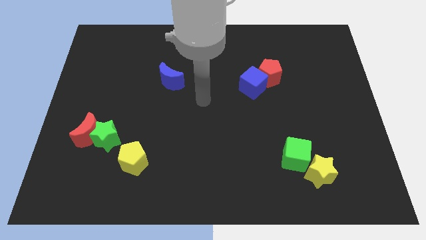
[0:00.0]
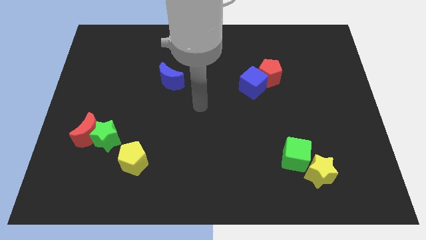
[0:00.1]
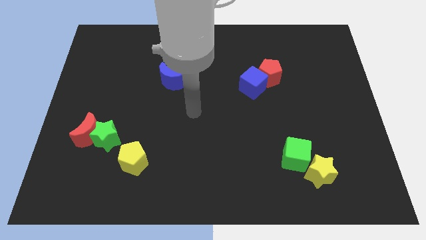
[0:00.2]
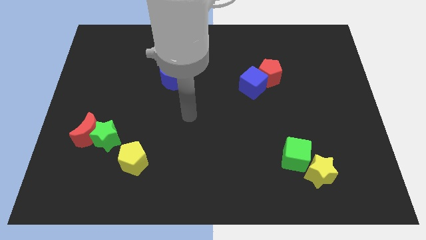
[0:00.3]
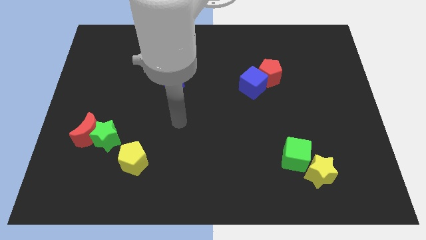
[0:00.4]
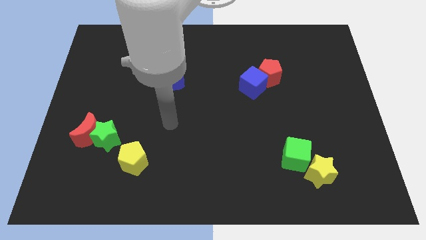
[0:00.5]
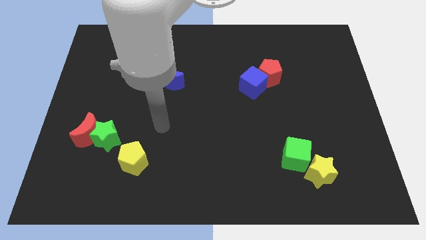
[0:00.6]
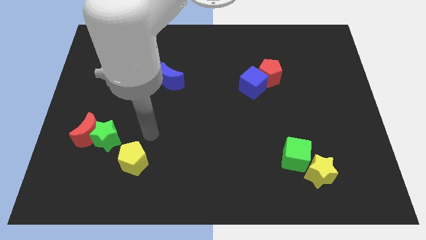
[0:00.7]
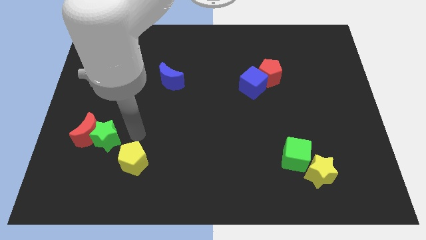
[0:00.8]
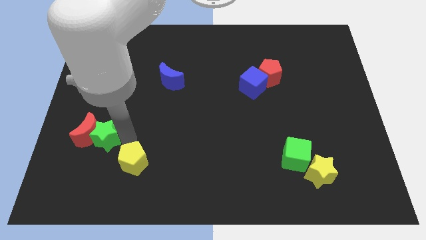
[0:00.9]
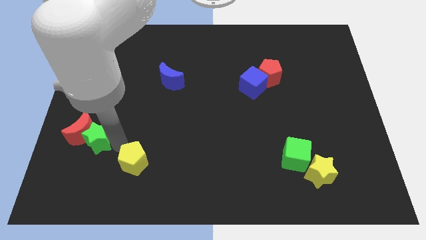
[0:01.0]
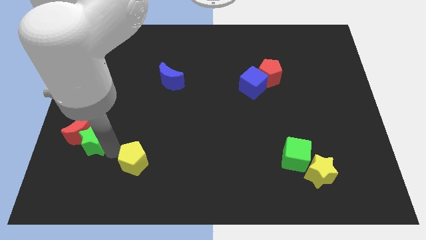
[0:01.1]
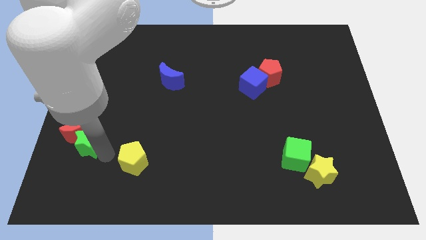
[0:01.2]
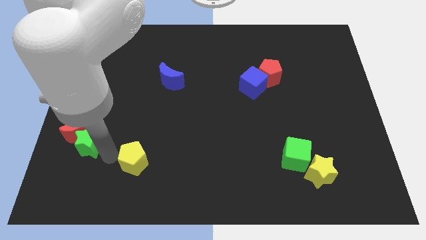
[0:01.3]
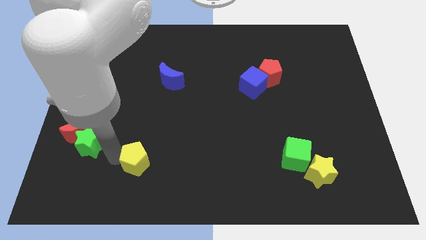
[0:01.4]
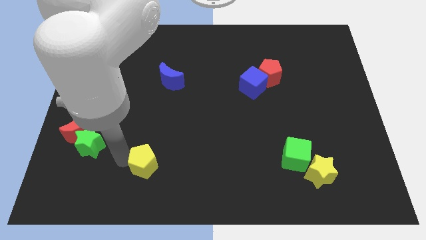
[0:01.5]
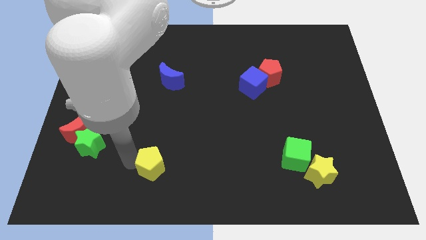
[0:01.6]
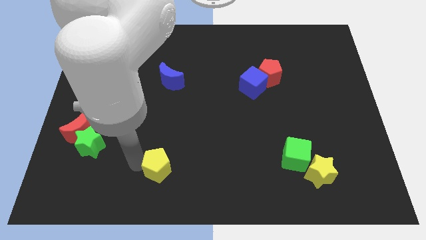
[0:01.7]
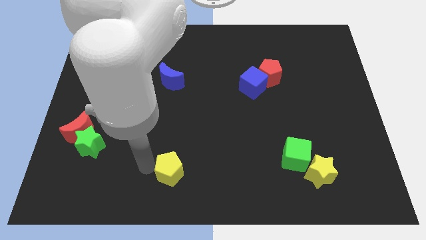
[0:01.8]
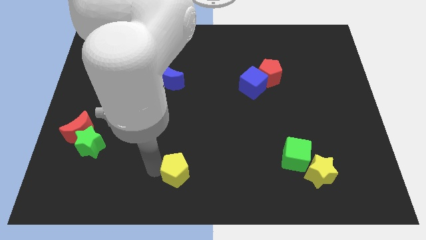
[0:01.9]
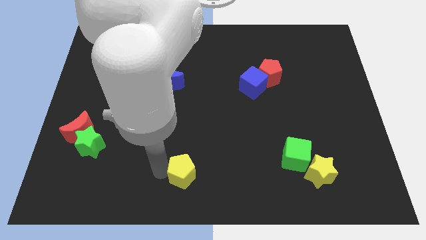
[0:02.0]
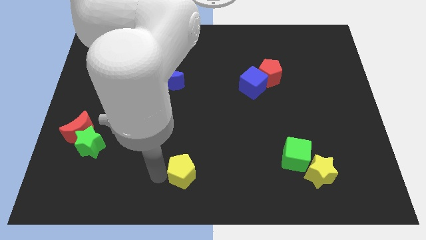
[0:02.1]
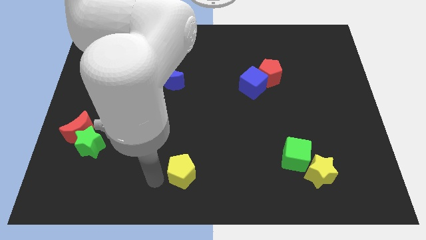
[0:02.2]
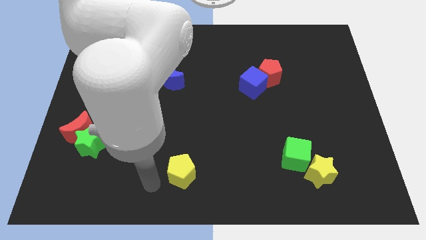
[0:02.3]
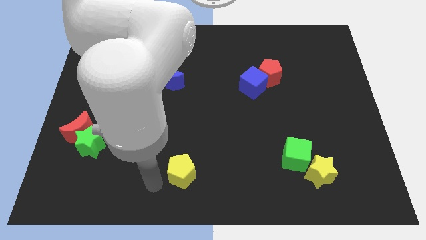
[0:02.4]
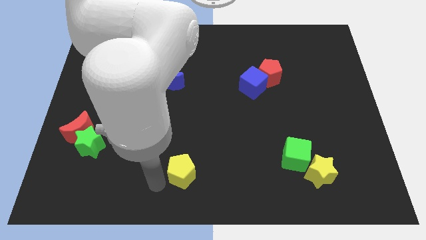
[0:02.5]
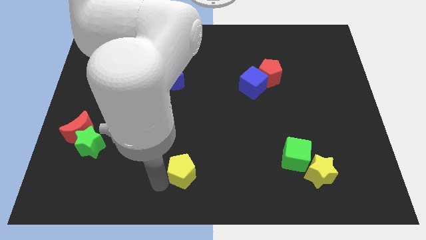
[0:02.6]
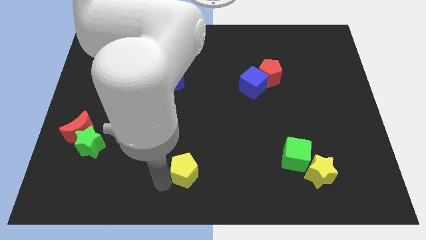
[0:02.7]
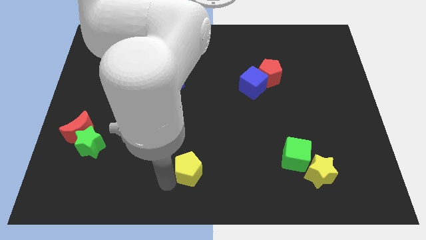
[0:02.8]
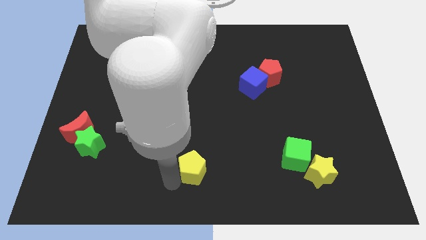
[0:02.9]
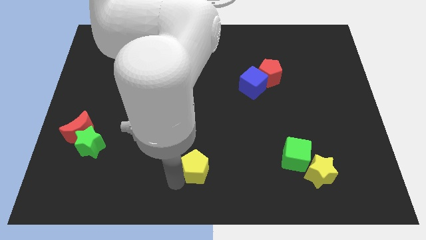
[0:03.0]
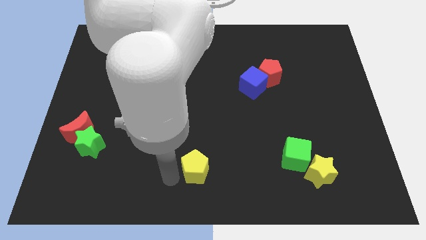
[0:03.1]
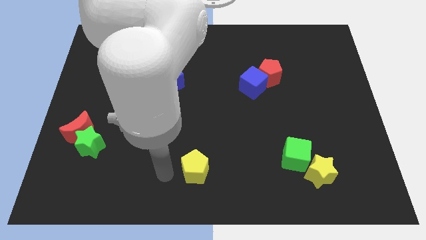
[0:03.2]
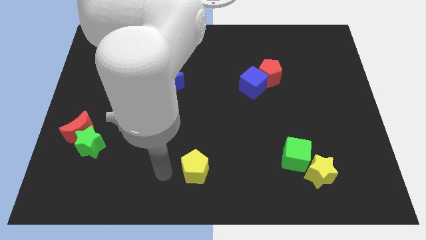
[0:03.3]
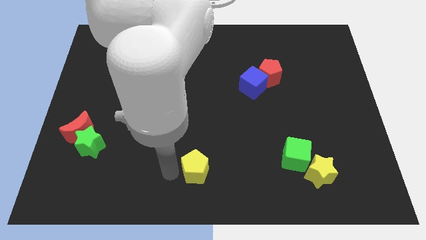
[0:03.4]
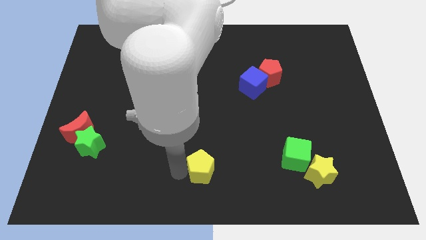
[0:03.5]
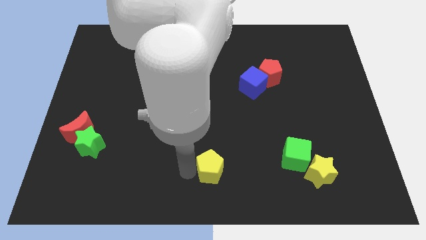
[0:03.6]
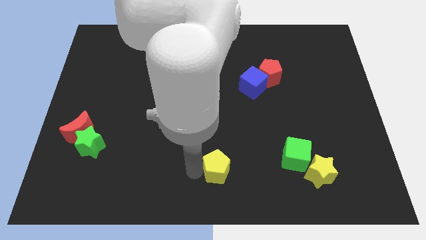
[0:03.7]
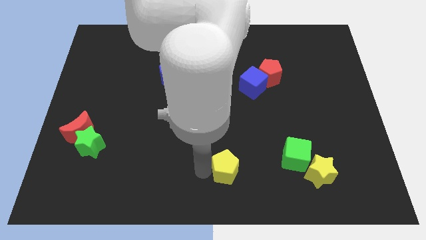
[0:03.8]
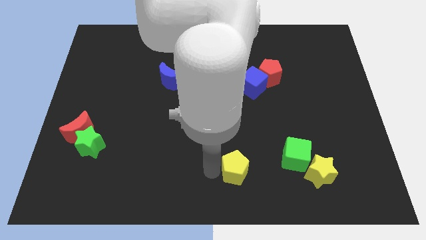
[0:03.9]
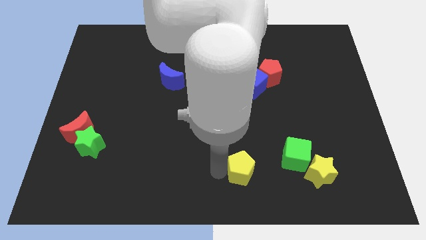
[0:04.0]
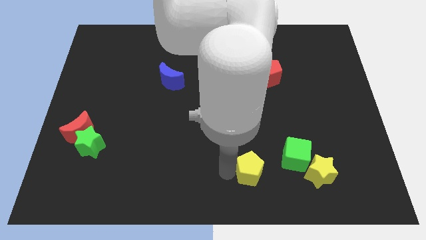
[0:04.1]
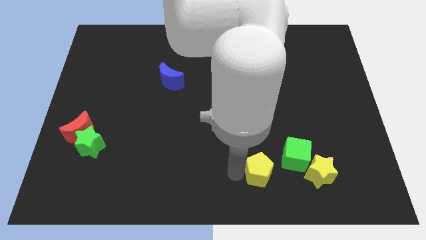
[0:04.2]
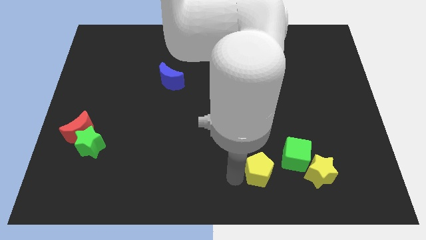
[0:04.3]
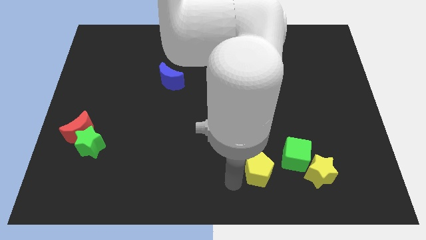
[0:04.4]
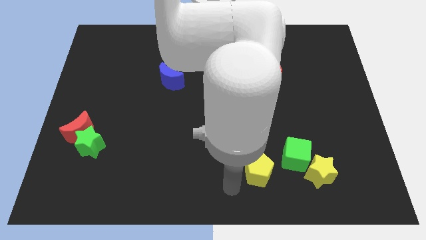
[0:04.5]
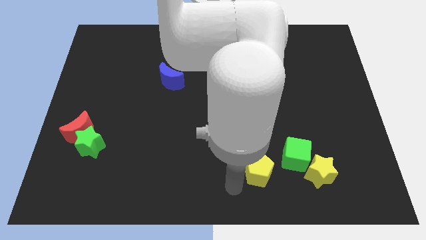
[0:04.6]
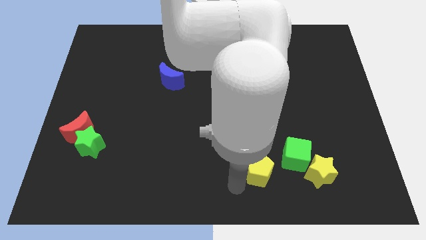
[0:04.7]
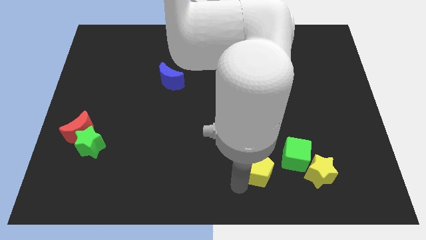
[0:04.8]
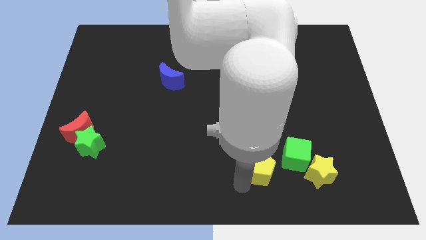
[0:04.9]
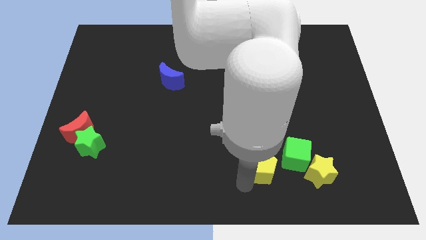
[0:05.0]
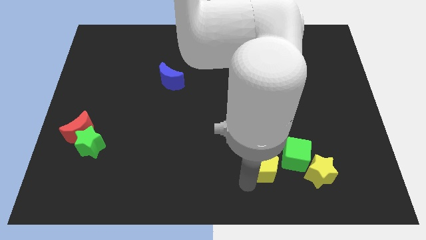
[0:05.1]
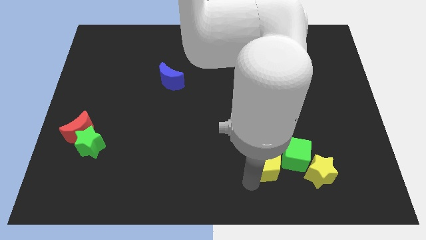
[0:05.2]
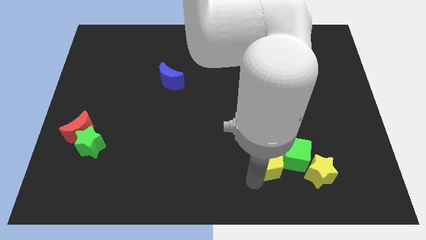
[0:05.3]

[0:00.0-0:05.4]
put the yellow pentagon towards the green cube

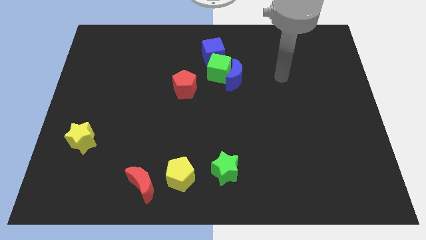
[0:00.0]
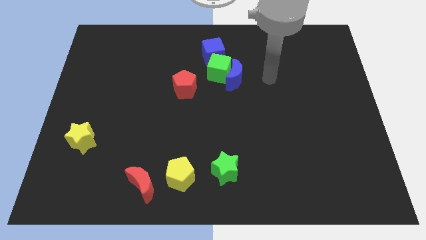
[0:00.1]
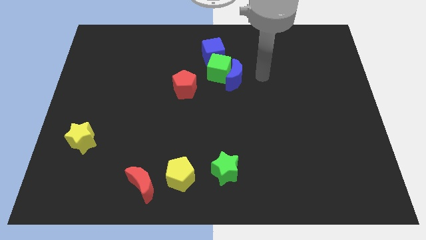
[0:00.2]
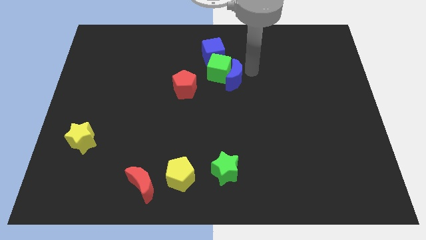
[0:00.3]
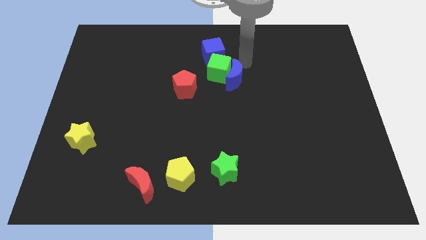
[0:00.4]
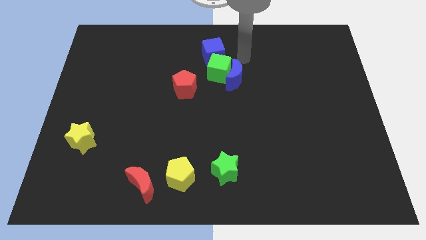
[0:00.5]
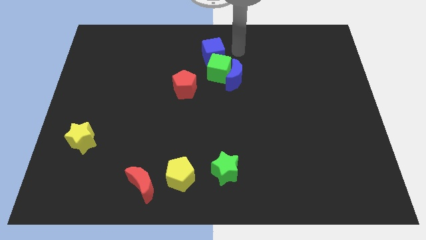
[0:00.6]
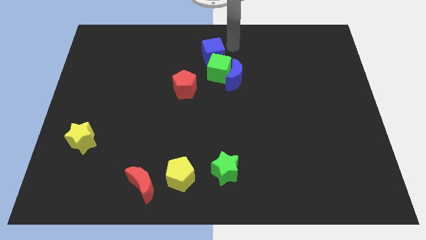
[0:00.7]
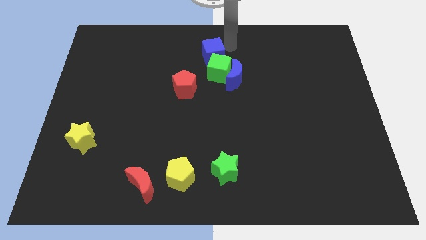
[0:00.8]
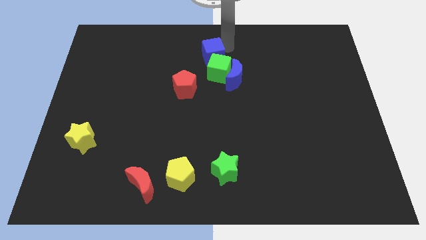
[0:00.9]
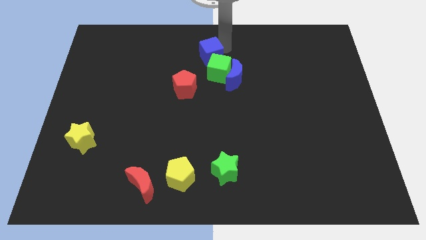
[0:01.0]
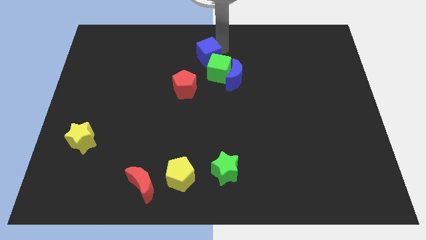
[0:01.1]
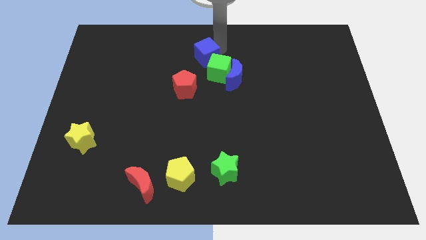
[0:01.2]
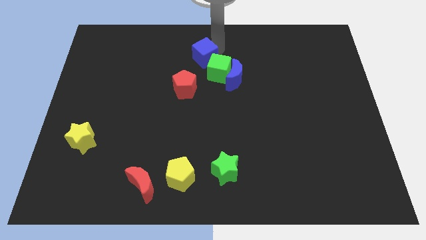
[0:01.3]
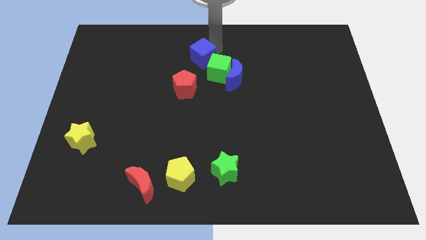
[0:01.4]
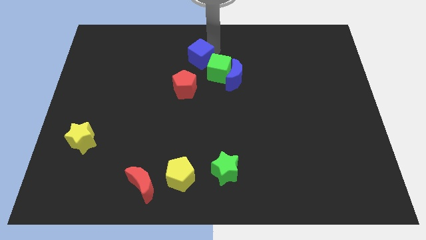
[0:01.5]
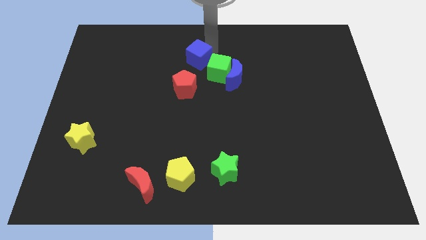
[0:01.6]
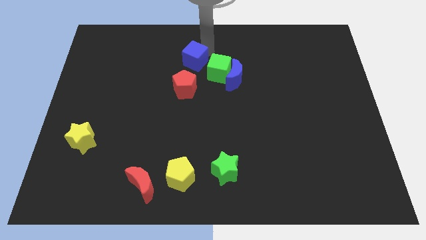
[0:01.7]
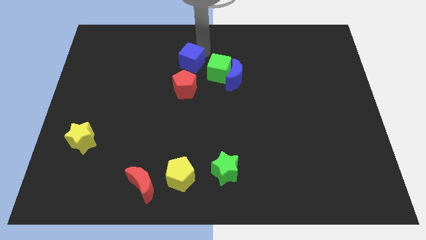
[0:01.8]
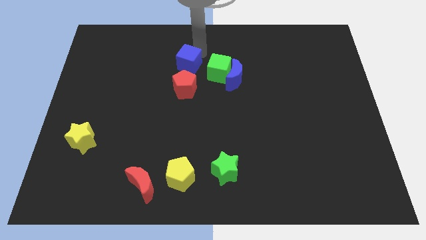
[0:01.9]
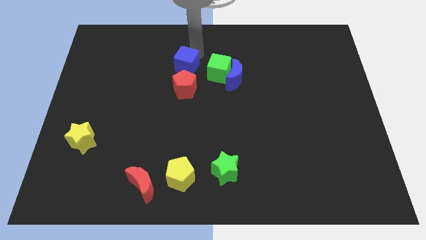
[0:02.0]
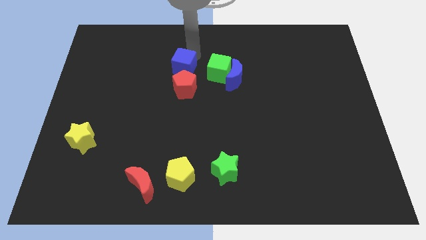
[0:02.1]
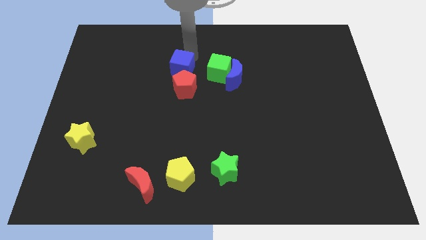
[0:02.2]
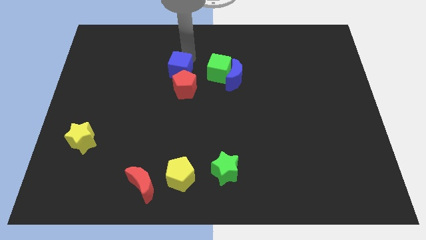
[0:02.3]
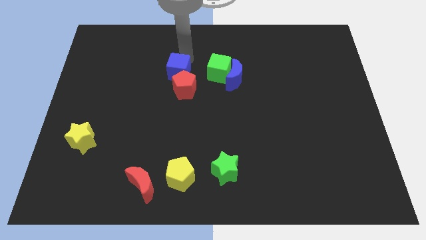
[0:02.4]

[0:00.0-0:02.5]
put the blue cube next to the red pentagon
